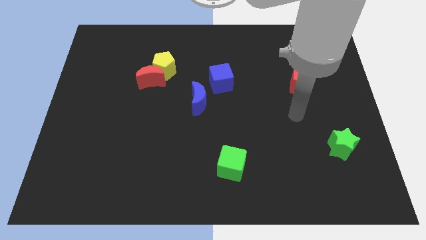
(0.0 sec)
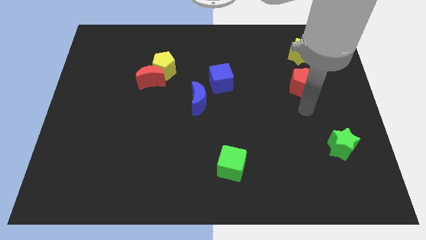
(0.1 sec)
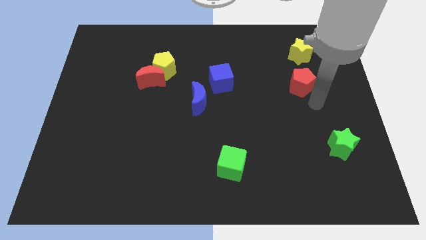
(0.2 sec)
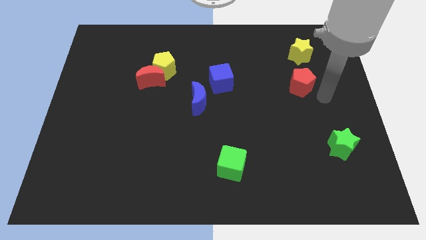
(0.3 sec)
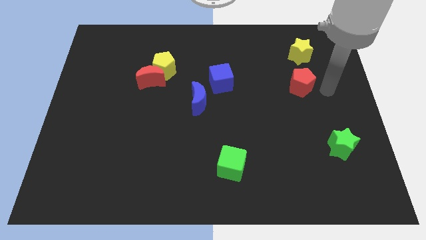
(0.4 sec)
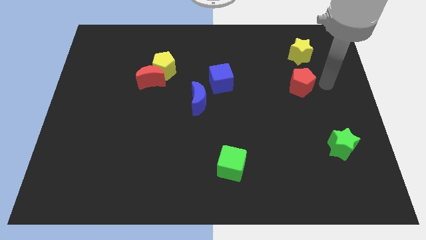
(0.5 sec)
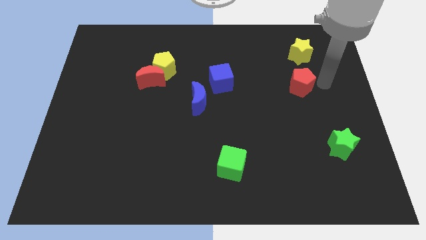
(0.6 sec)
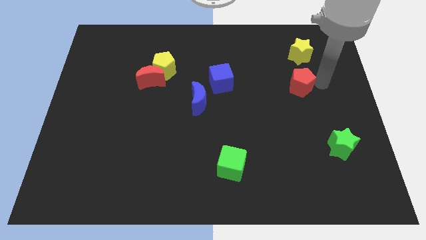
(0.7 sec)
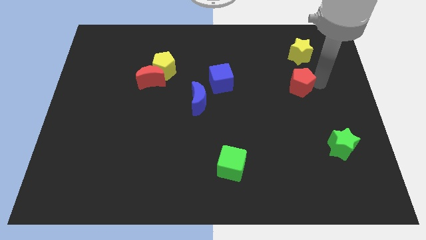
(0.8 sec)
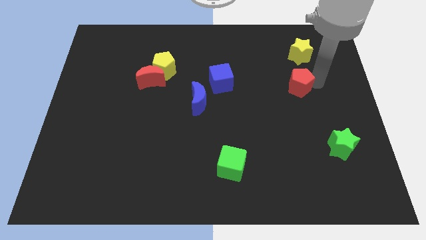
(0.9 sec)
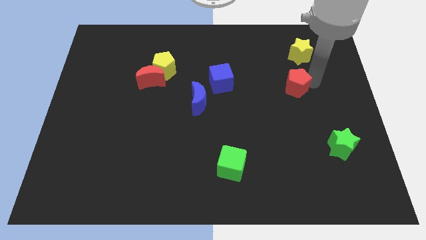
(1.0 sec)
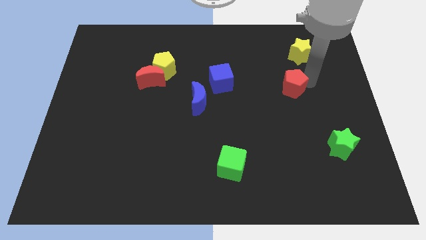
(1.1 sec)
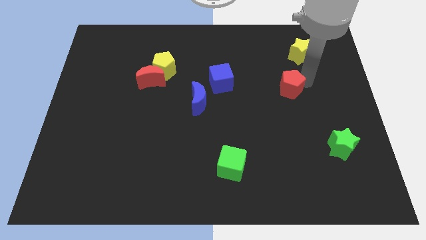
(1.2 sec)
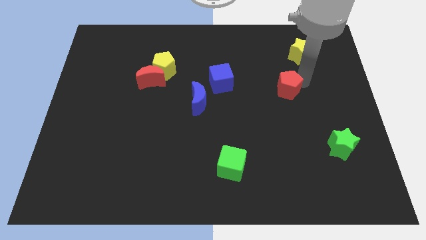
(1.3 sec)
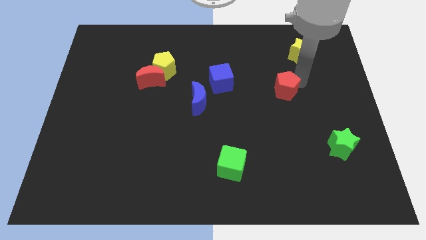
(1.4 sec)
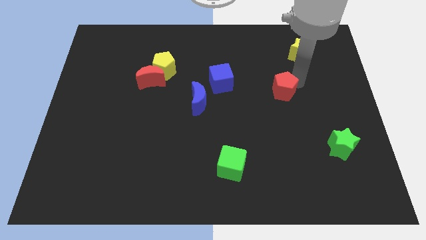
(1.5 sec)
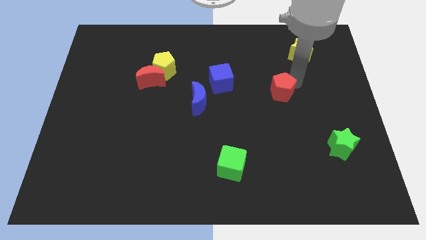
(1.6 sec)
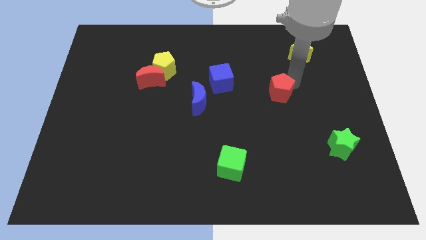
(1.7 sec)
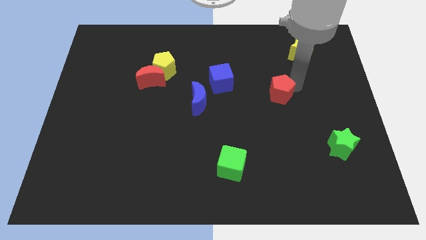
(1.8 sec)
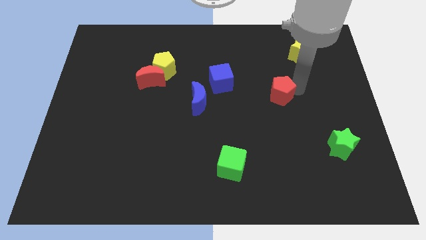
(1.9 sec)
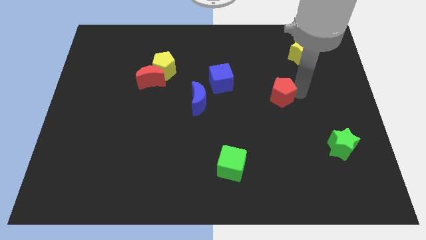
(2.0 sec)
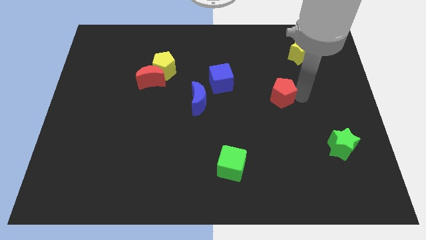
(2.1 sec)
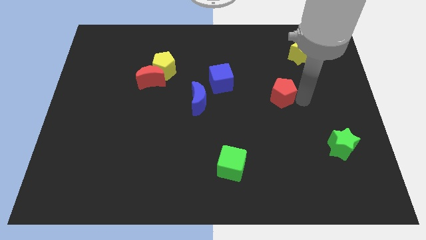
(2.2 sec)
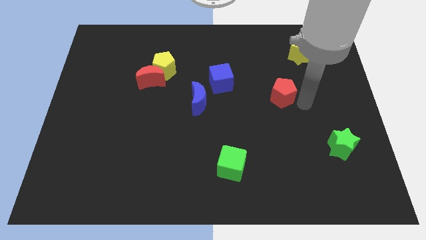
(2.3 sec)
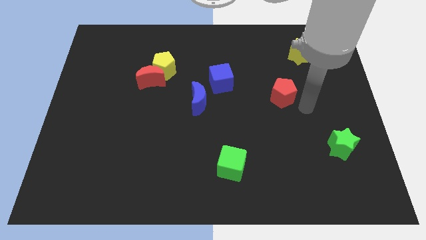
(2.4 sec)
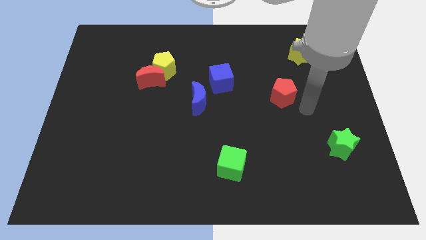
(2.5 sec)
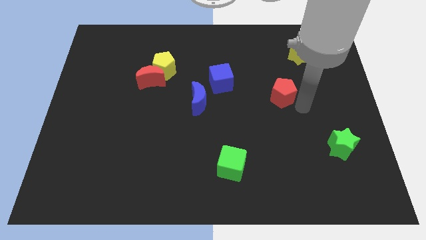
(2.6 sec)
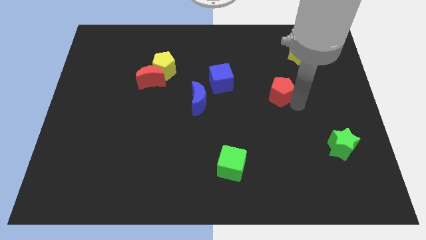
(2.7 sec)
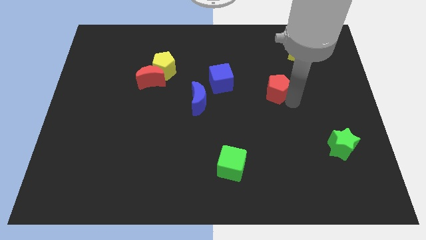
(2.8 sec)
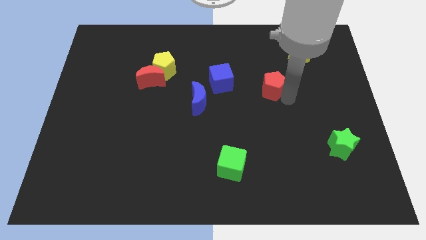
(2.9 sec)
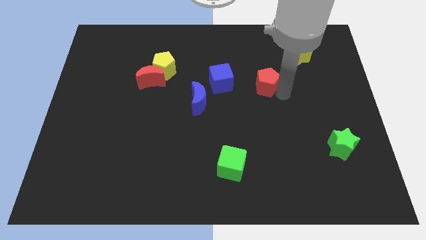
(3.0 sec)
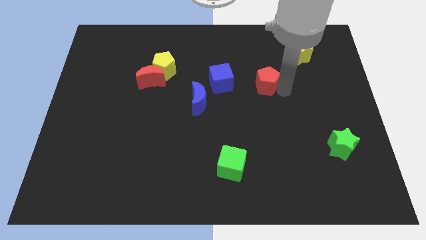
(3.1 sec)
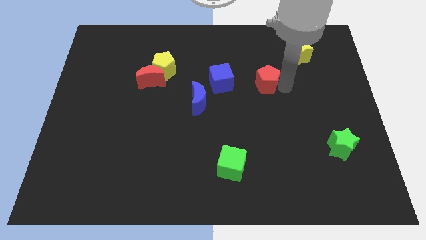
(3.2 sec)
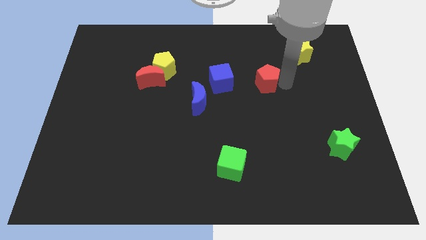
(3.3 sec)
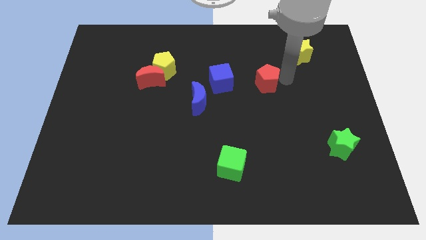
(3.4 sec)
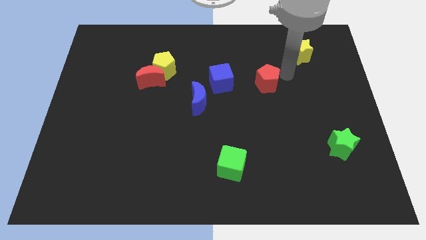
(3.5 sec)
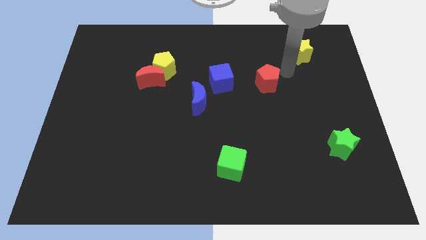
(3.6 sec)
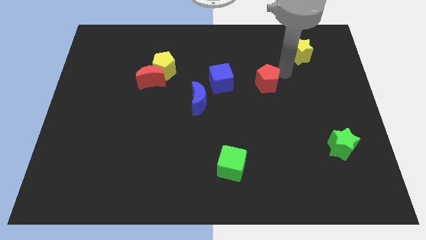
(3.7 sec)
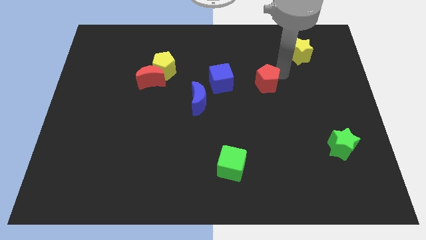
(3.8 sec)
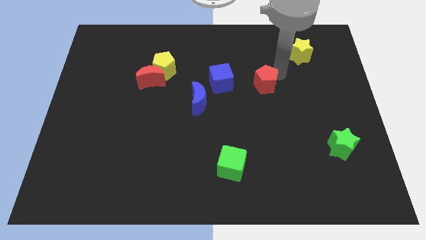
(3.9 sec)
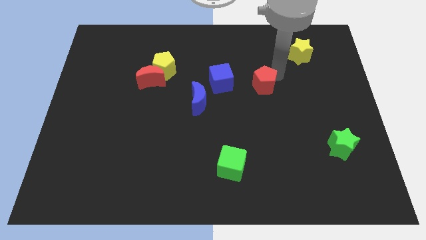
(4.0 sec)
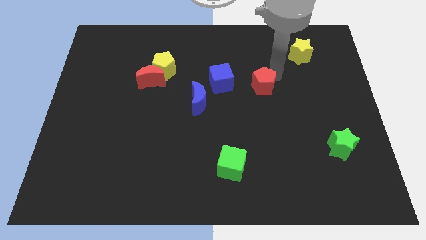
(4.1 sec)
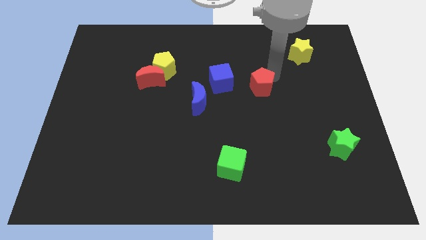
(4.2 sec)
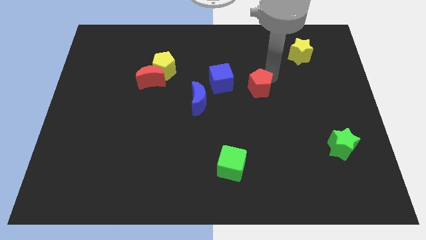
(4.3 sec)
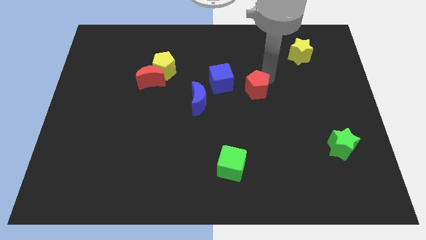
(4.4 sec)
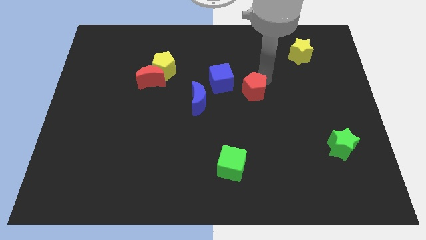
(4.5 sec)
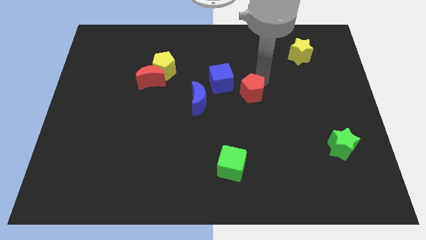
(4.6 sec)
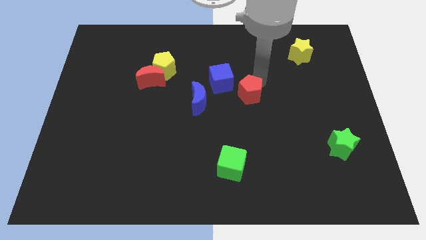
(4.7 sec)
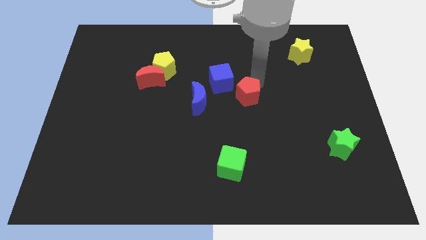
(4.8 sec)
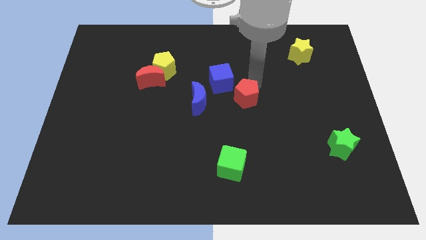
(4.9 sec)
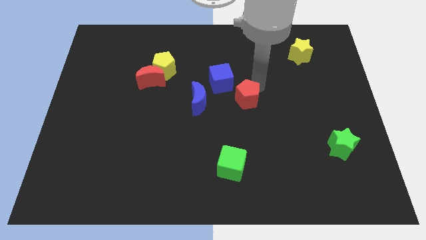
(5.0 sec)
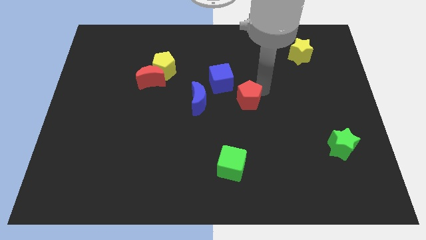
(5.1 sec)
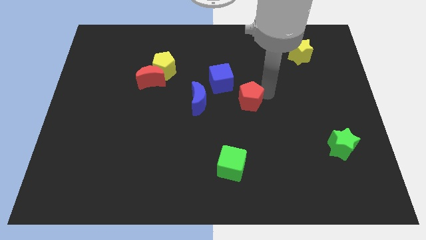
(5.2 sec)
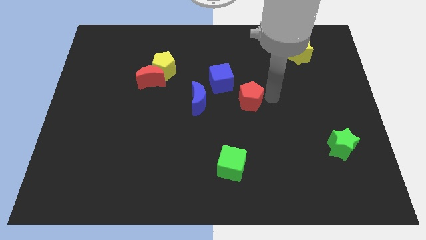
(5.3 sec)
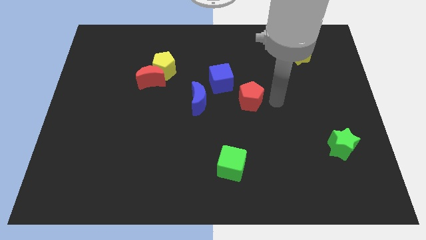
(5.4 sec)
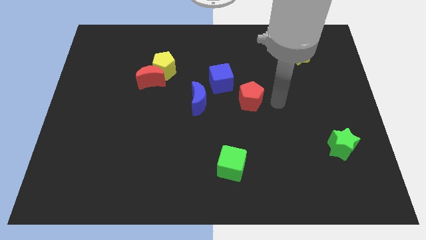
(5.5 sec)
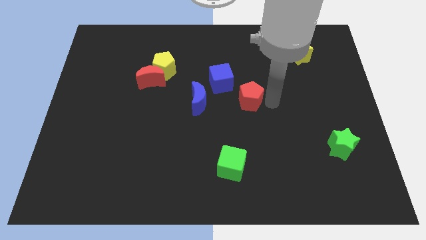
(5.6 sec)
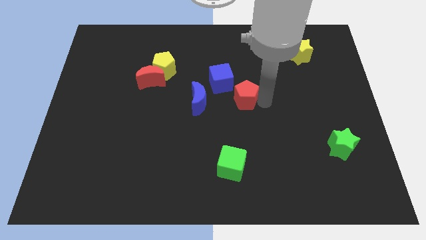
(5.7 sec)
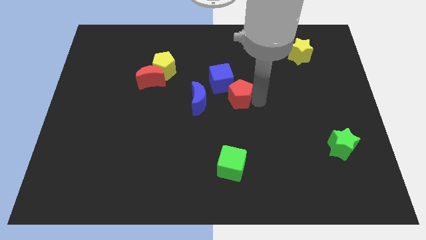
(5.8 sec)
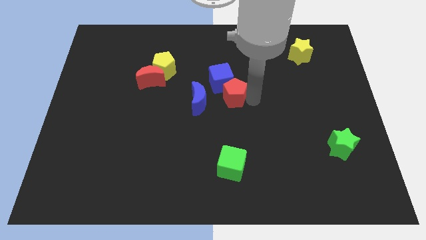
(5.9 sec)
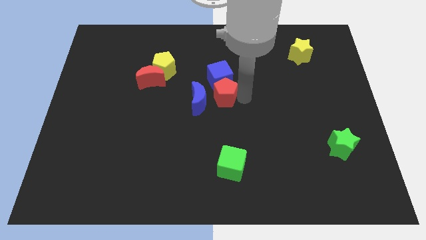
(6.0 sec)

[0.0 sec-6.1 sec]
move the red pentagon towards the blue moon
